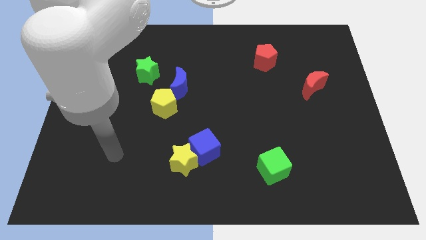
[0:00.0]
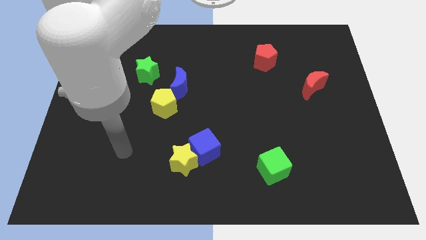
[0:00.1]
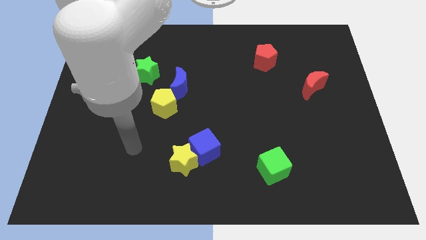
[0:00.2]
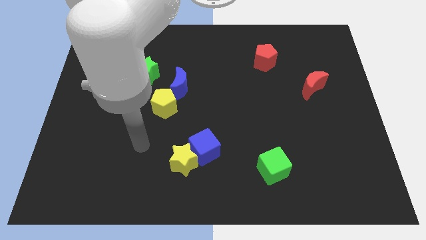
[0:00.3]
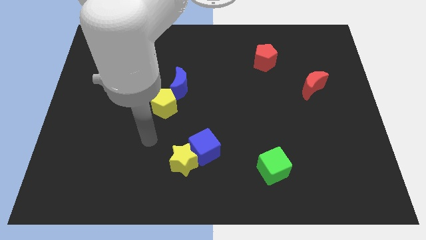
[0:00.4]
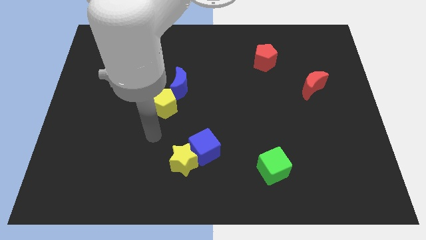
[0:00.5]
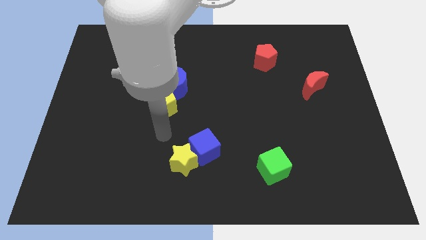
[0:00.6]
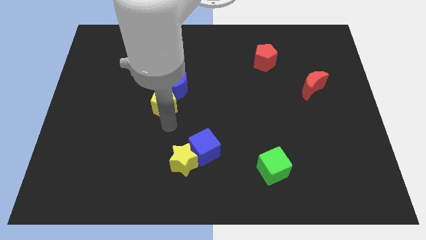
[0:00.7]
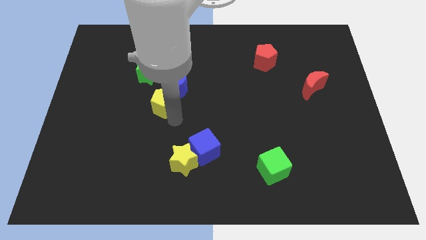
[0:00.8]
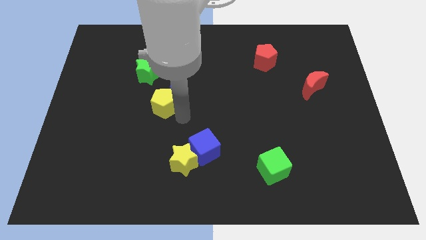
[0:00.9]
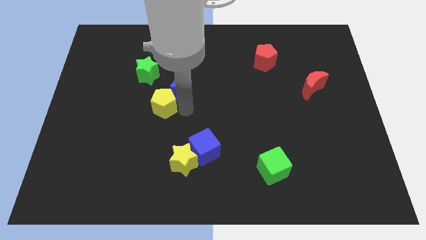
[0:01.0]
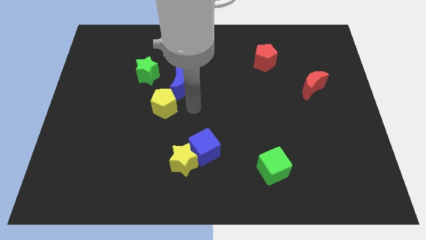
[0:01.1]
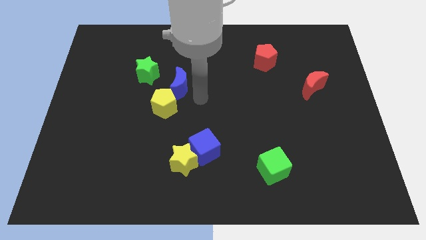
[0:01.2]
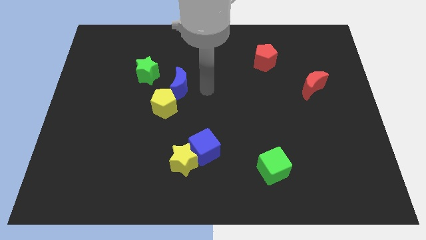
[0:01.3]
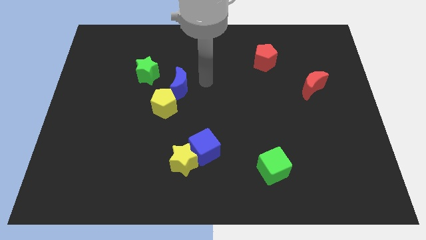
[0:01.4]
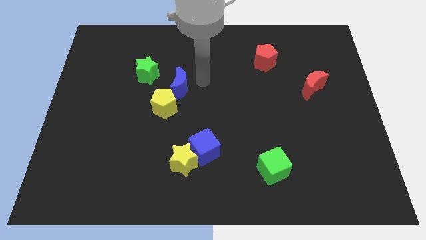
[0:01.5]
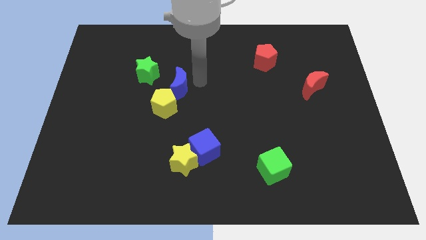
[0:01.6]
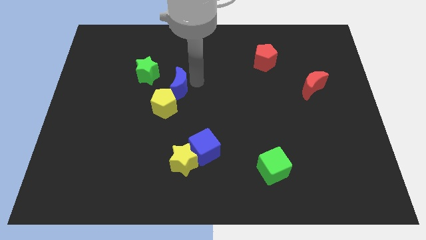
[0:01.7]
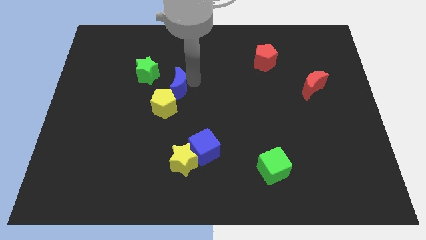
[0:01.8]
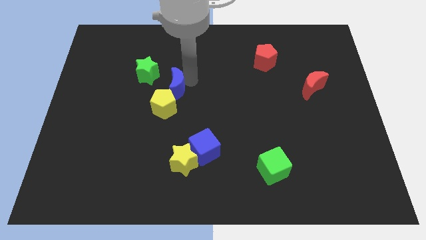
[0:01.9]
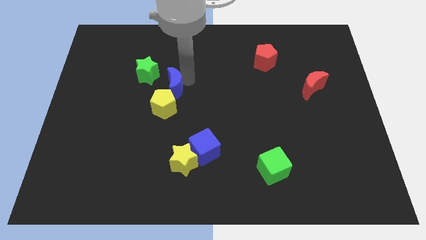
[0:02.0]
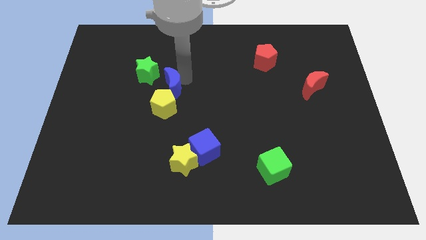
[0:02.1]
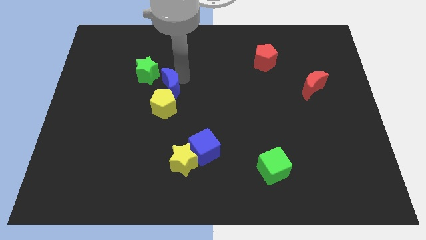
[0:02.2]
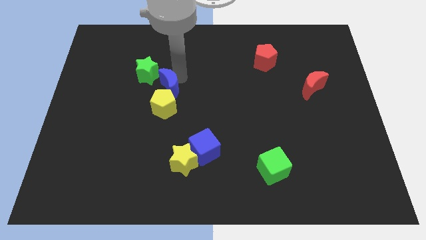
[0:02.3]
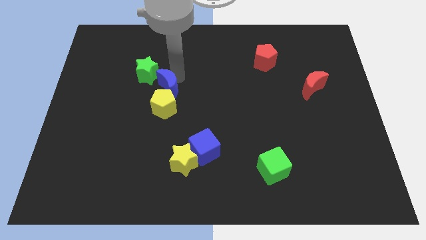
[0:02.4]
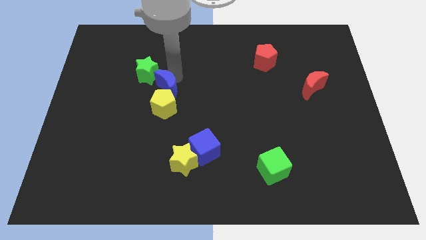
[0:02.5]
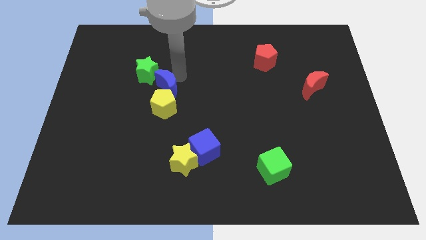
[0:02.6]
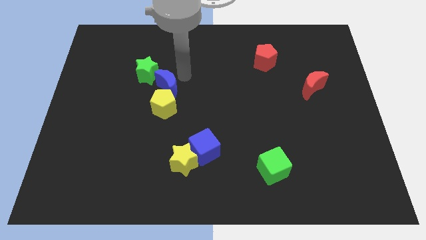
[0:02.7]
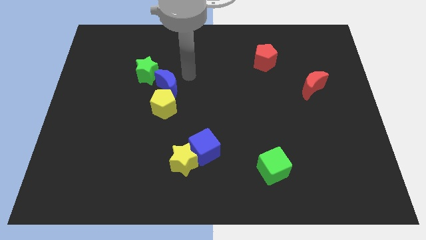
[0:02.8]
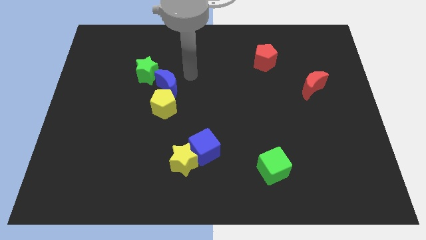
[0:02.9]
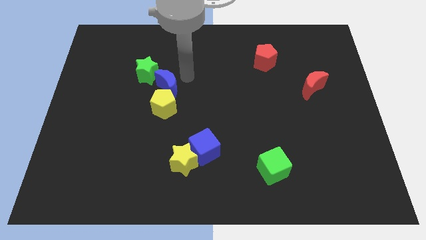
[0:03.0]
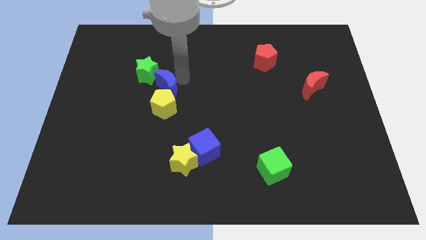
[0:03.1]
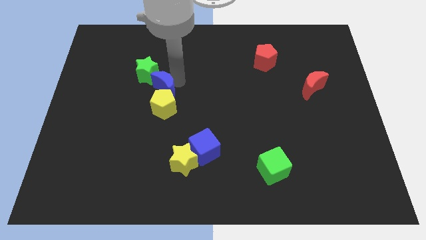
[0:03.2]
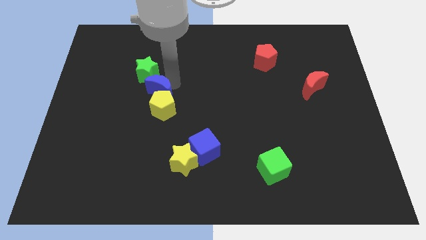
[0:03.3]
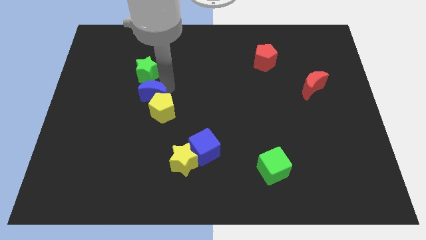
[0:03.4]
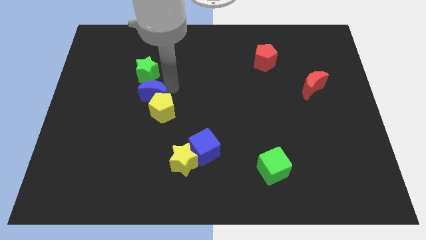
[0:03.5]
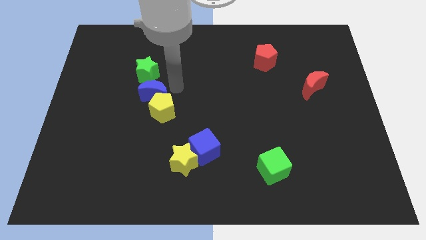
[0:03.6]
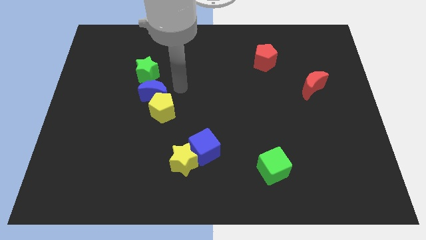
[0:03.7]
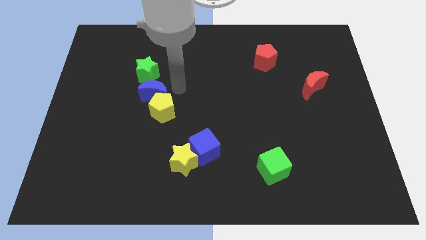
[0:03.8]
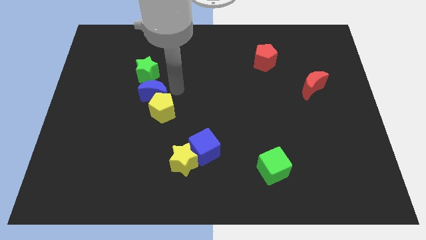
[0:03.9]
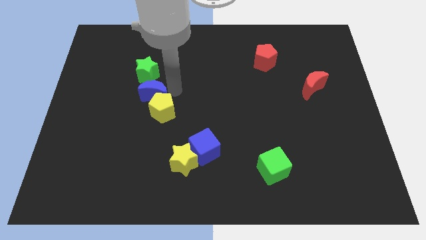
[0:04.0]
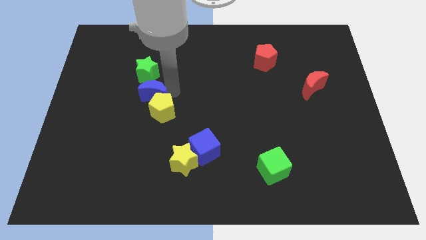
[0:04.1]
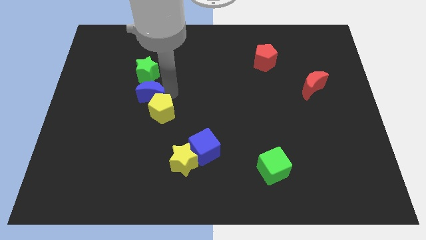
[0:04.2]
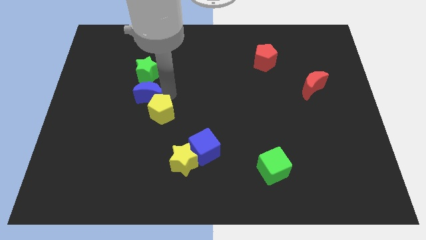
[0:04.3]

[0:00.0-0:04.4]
slide the blue moon a bit diagonally downwards and to the left

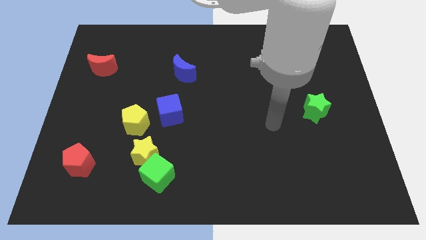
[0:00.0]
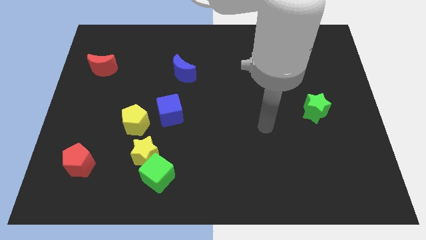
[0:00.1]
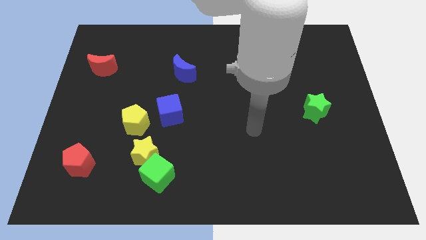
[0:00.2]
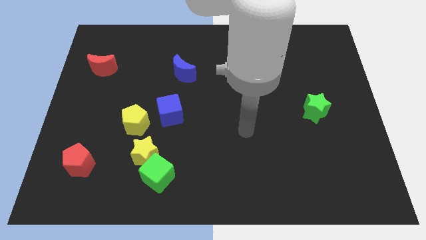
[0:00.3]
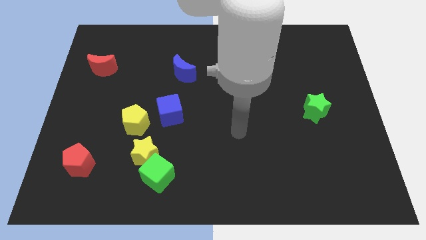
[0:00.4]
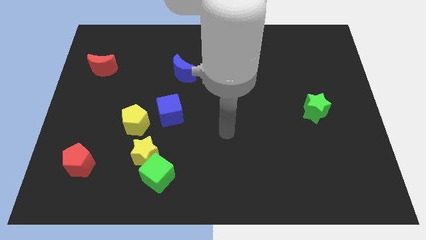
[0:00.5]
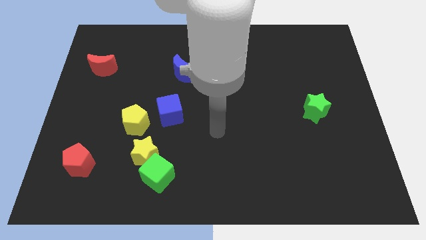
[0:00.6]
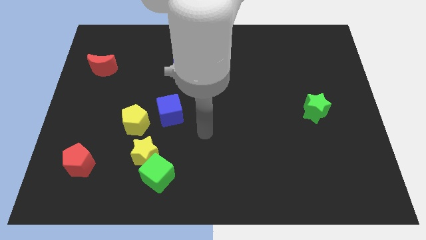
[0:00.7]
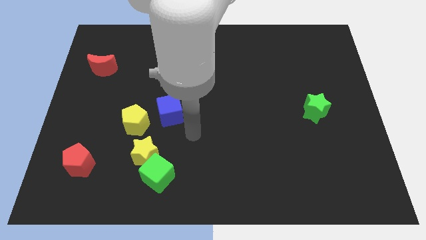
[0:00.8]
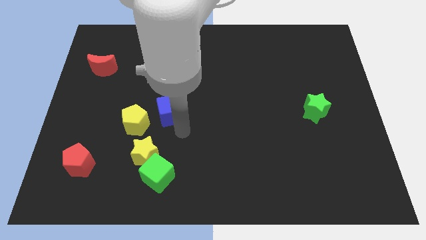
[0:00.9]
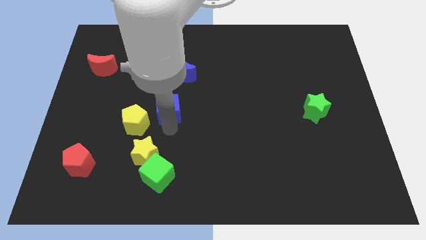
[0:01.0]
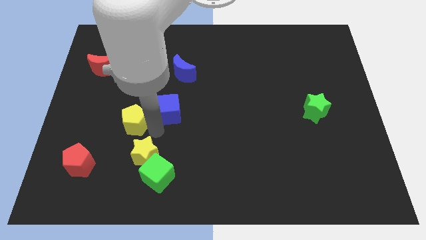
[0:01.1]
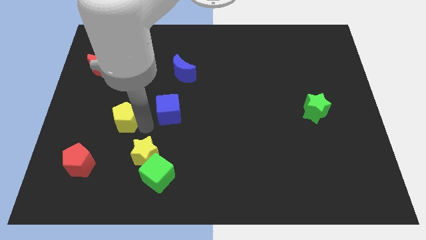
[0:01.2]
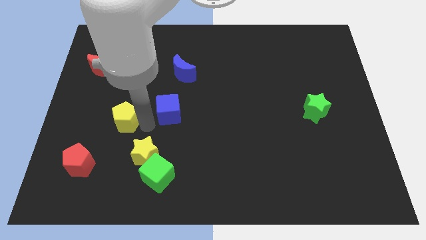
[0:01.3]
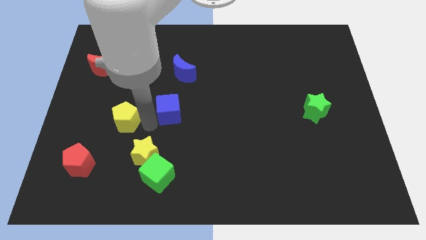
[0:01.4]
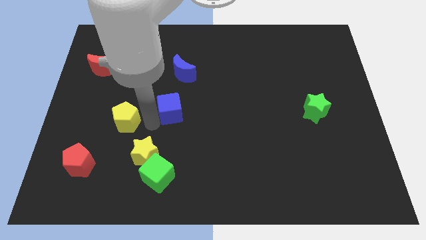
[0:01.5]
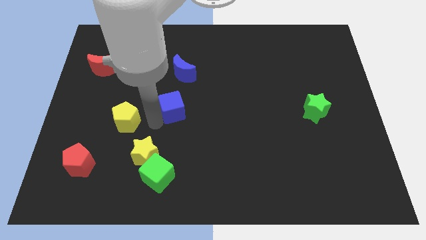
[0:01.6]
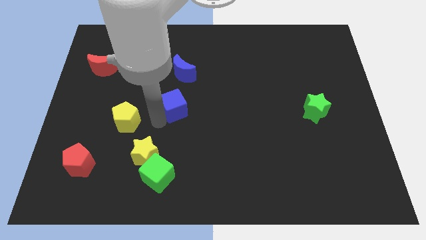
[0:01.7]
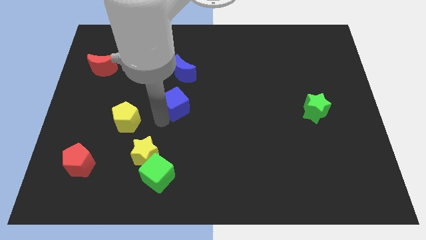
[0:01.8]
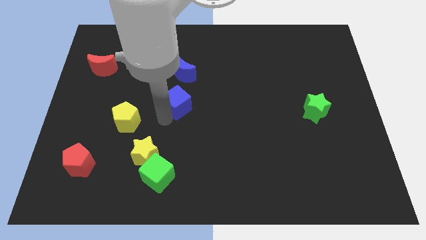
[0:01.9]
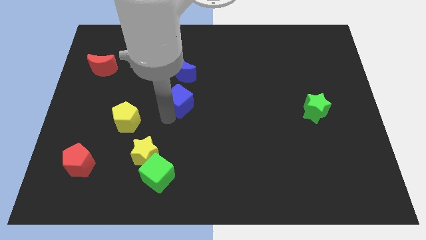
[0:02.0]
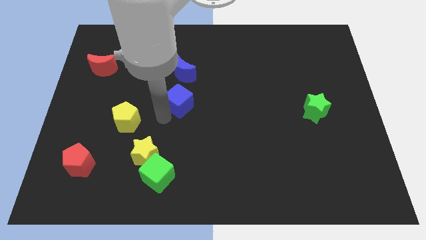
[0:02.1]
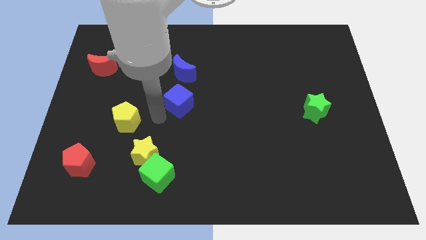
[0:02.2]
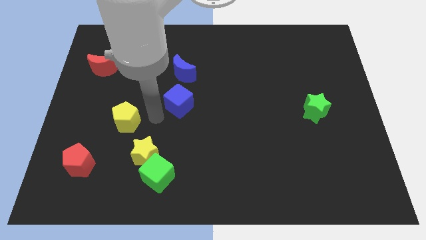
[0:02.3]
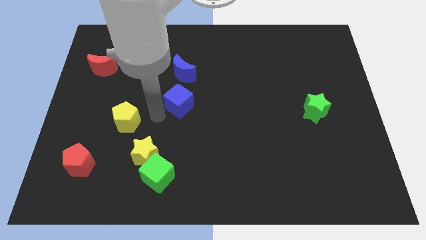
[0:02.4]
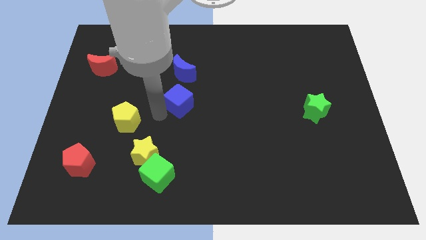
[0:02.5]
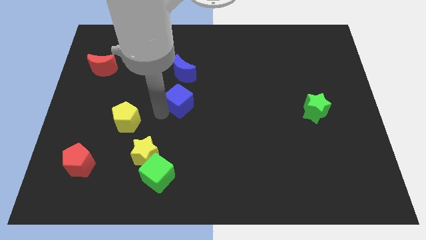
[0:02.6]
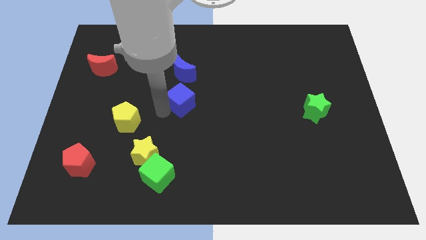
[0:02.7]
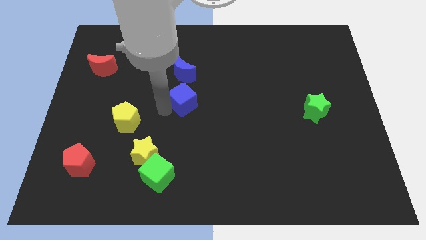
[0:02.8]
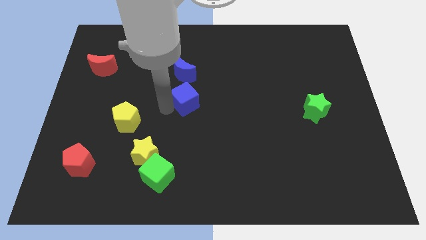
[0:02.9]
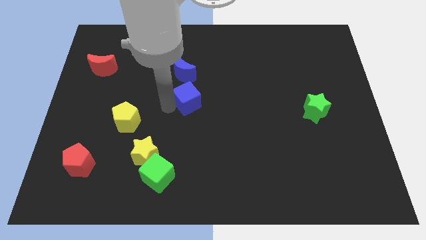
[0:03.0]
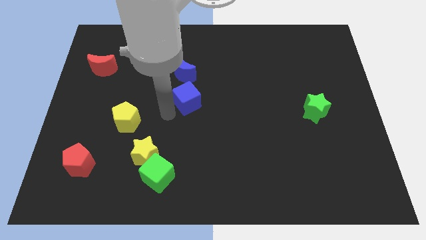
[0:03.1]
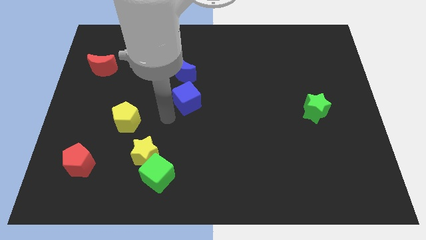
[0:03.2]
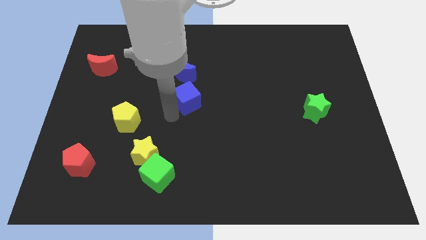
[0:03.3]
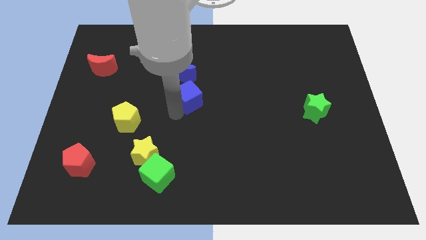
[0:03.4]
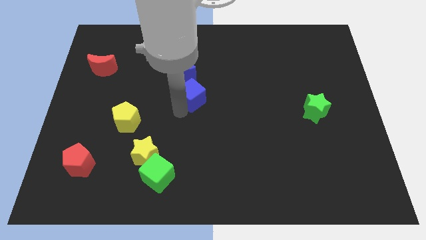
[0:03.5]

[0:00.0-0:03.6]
slightly slide the blue cube up and to the right diagonally

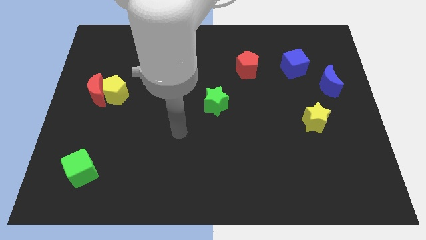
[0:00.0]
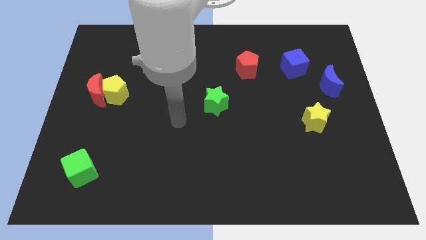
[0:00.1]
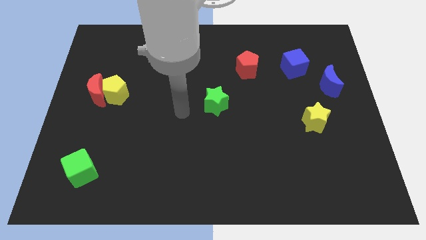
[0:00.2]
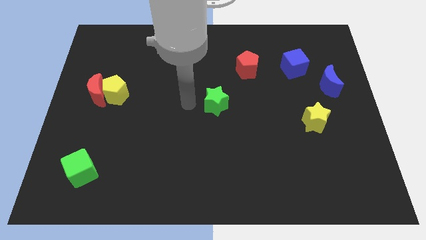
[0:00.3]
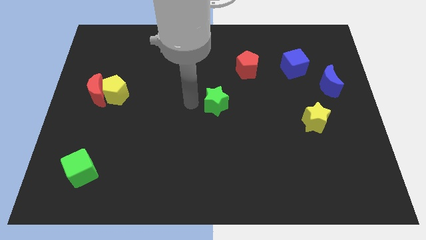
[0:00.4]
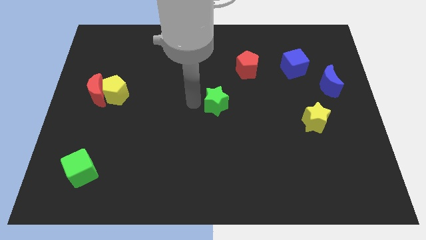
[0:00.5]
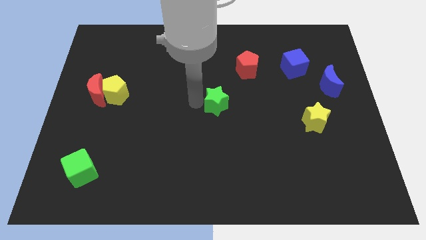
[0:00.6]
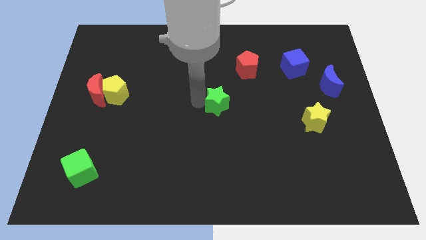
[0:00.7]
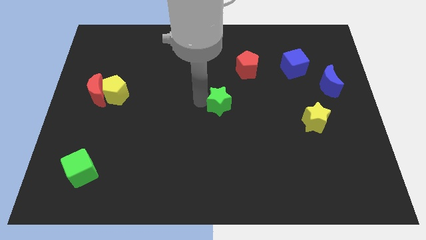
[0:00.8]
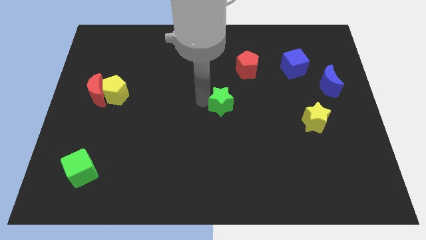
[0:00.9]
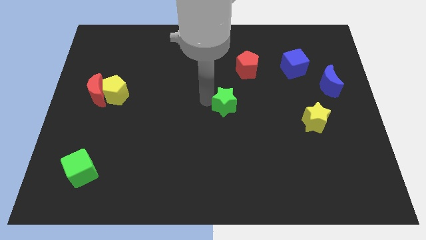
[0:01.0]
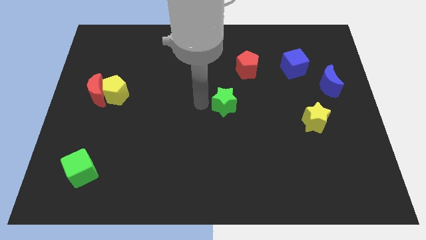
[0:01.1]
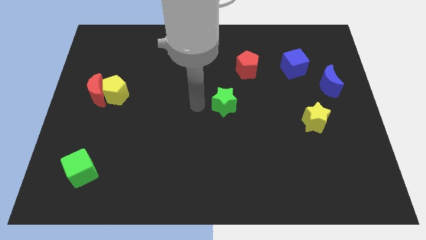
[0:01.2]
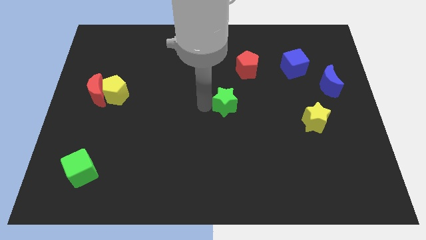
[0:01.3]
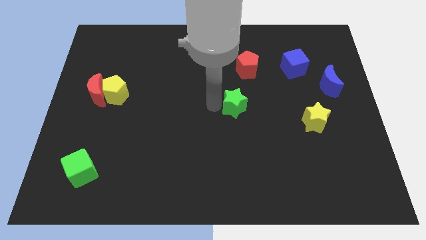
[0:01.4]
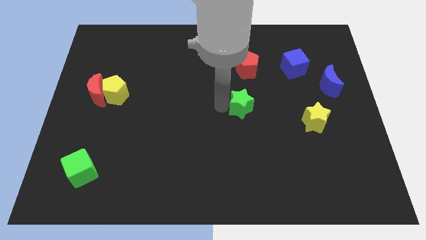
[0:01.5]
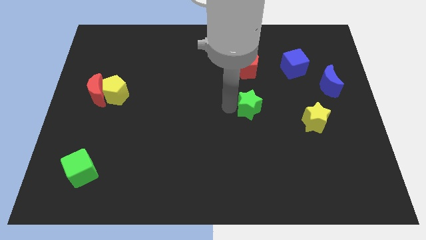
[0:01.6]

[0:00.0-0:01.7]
move the green star right a bit
